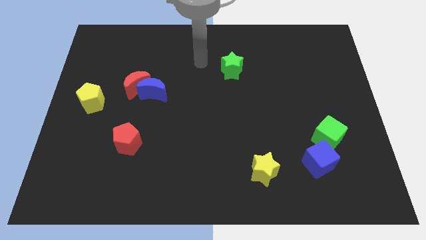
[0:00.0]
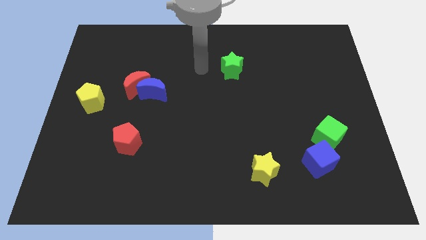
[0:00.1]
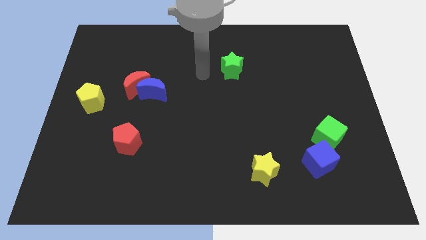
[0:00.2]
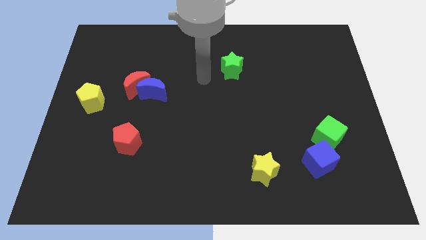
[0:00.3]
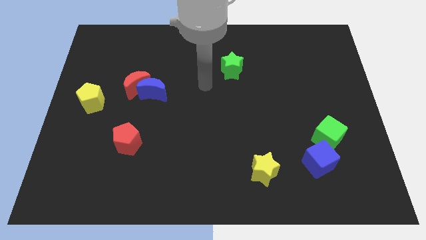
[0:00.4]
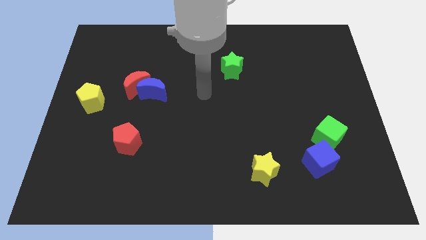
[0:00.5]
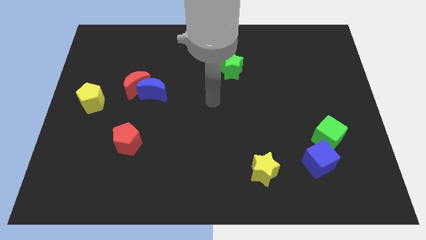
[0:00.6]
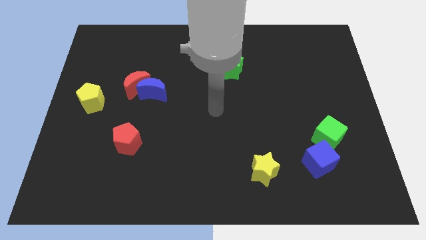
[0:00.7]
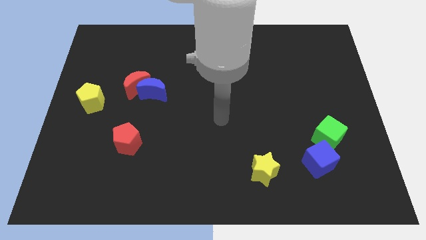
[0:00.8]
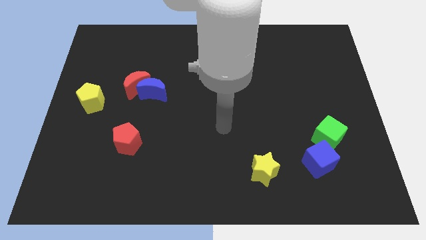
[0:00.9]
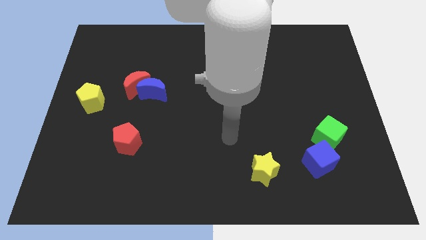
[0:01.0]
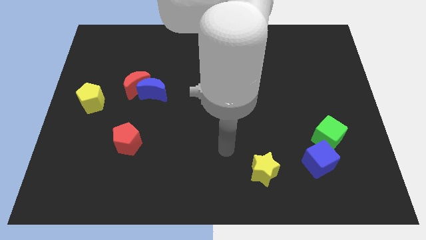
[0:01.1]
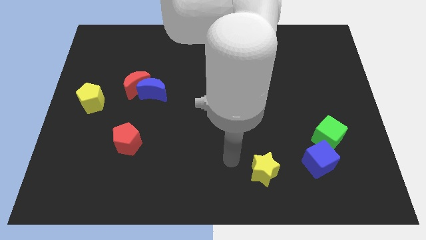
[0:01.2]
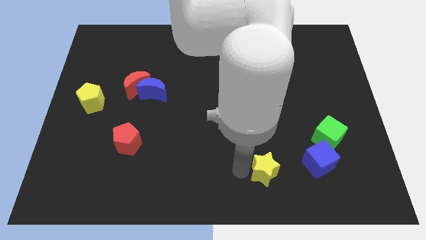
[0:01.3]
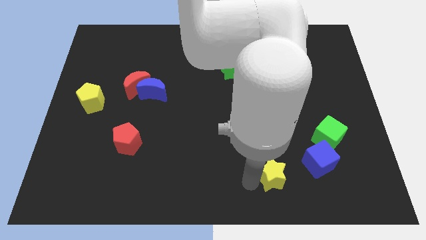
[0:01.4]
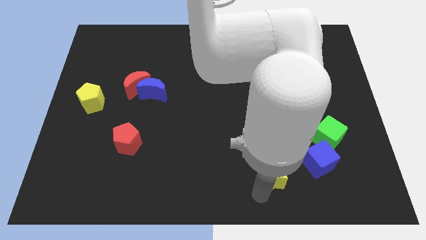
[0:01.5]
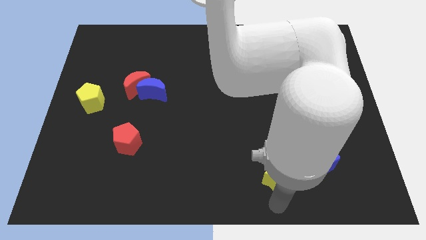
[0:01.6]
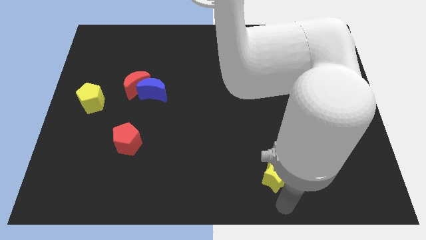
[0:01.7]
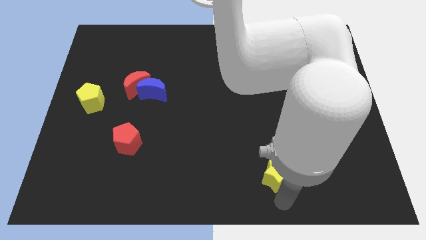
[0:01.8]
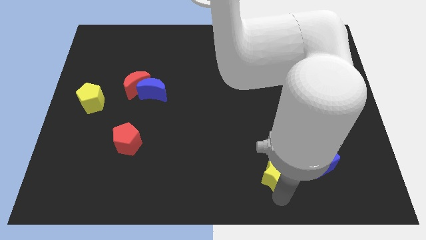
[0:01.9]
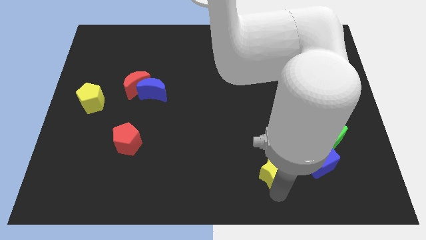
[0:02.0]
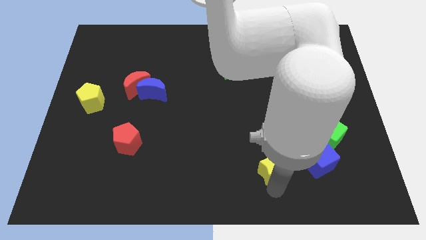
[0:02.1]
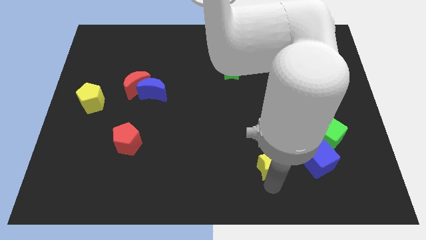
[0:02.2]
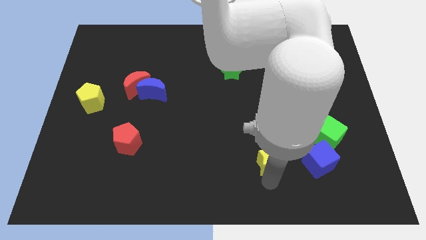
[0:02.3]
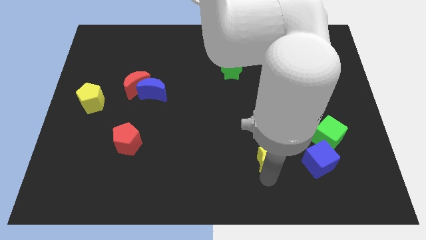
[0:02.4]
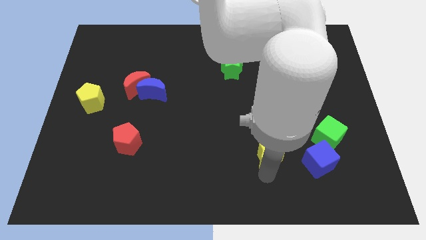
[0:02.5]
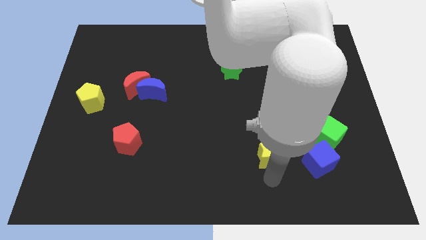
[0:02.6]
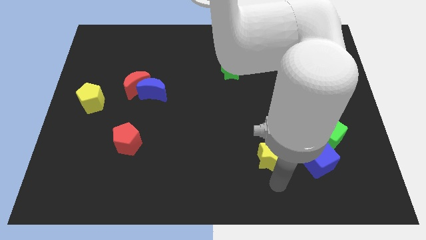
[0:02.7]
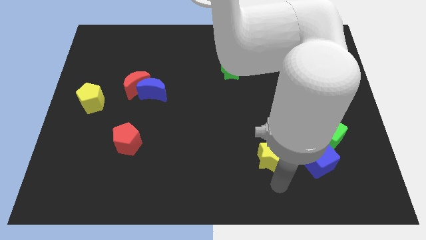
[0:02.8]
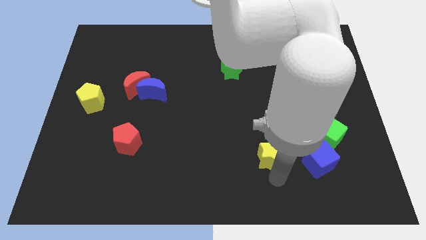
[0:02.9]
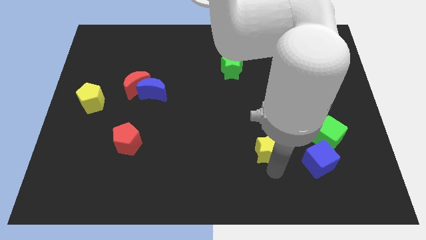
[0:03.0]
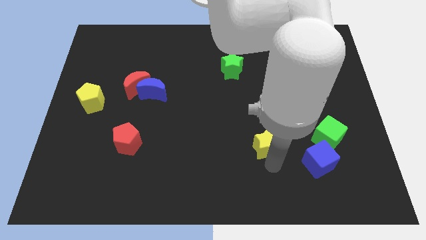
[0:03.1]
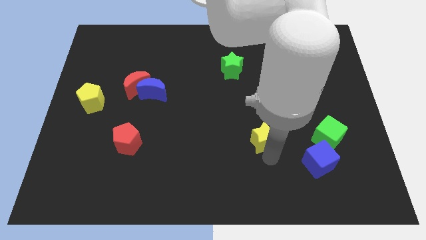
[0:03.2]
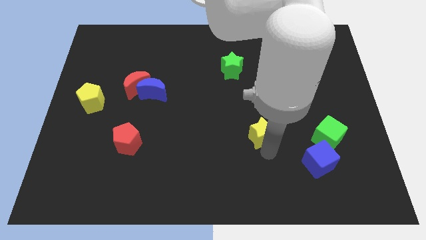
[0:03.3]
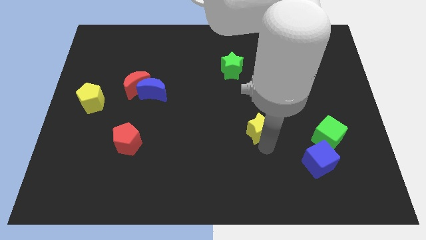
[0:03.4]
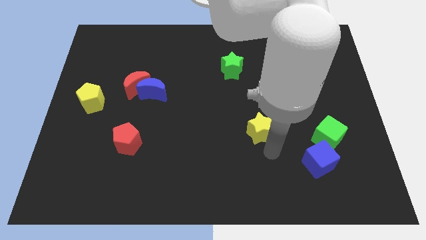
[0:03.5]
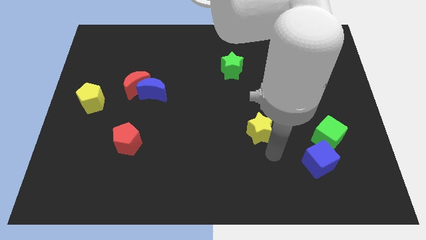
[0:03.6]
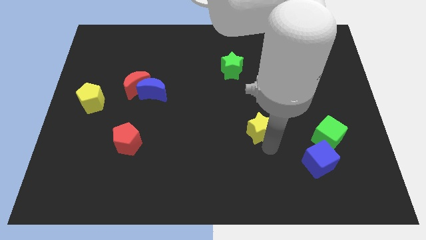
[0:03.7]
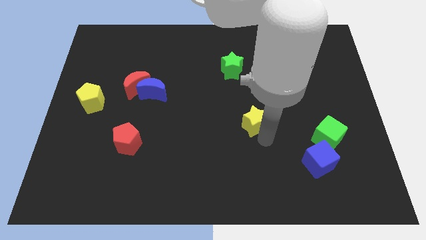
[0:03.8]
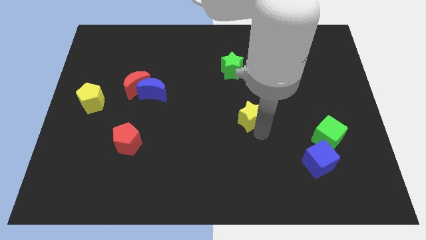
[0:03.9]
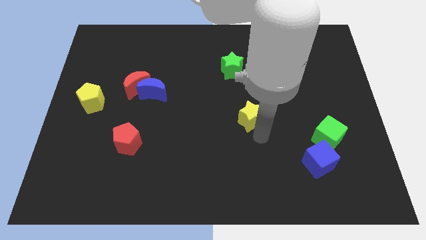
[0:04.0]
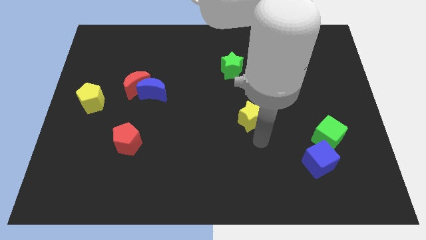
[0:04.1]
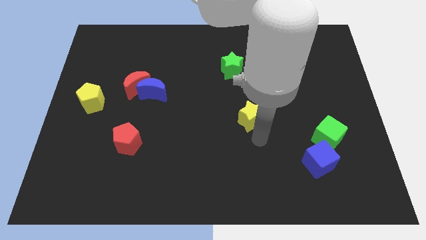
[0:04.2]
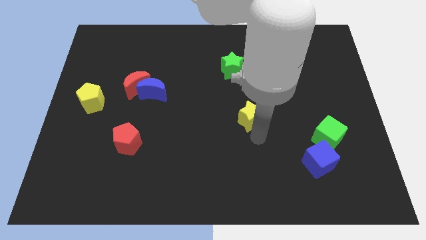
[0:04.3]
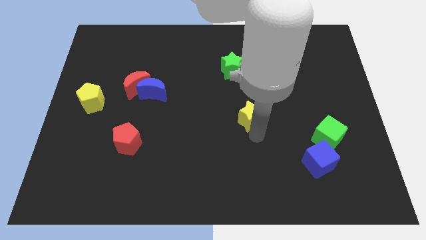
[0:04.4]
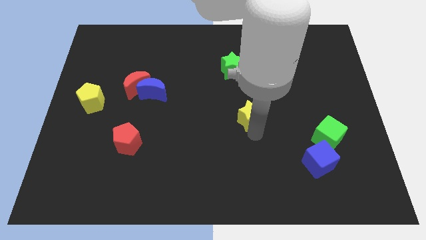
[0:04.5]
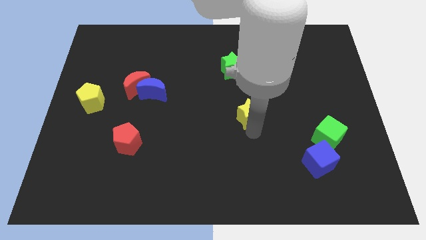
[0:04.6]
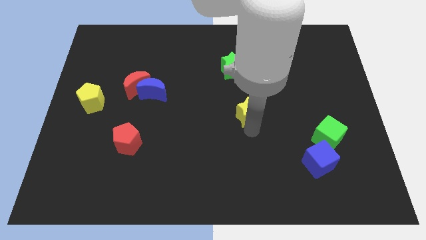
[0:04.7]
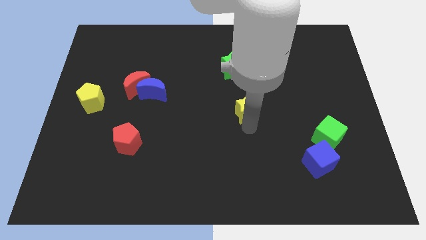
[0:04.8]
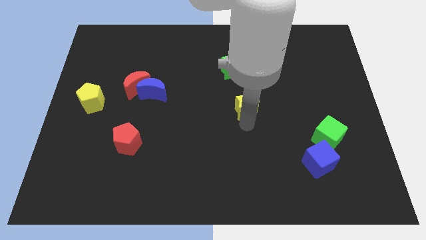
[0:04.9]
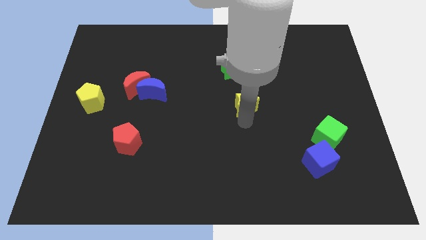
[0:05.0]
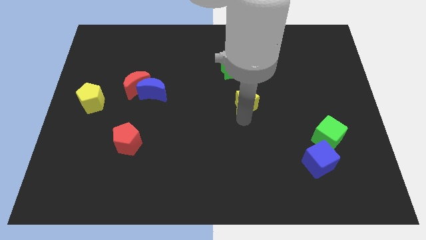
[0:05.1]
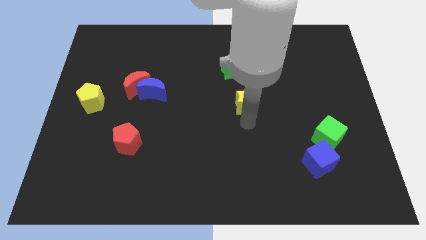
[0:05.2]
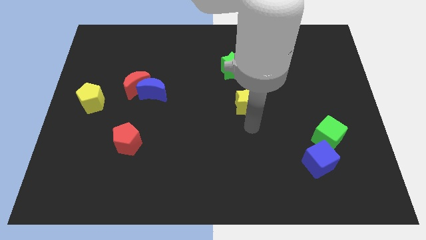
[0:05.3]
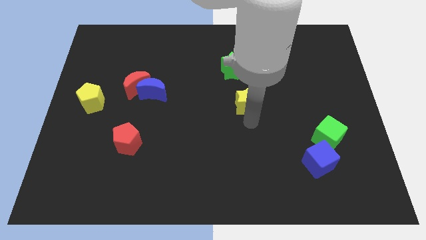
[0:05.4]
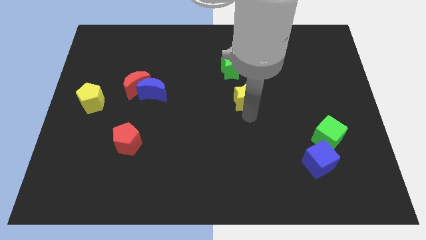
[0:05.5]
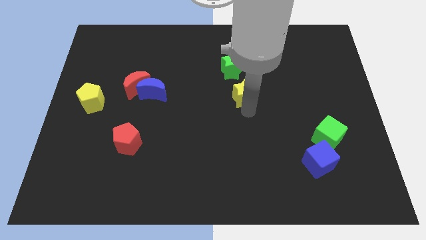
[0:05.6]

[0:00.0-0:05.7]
push the yellow star up

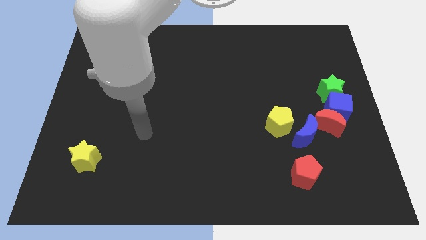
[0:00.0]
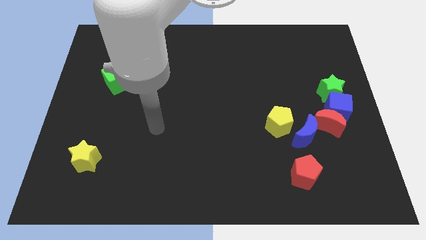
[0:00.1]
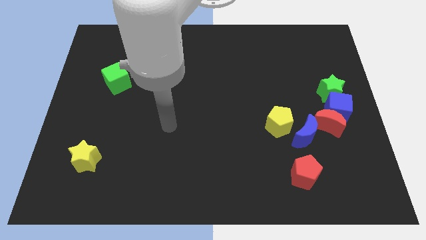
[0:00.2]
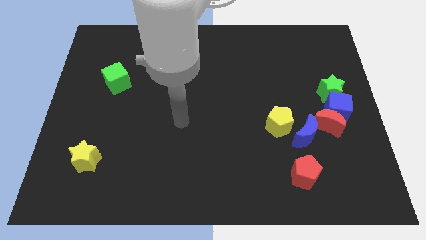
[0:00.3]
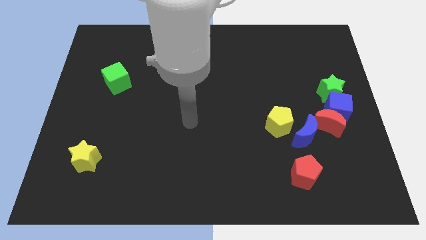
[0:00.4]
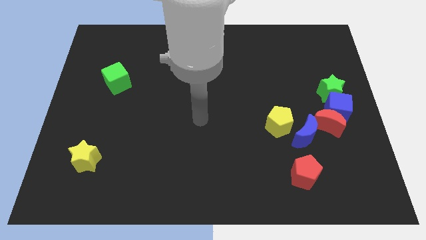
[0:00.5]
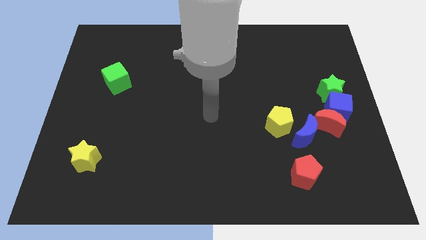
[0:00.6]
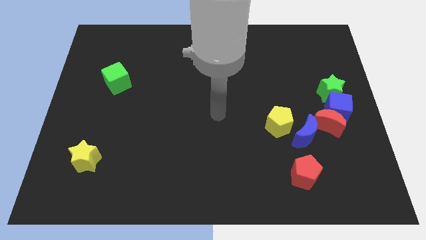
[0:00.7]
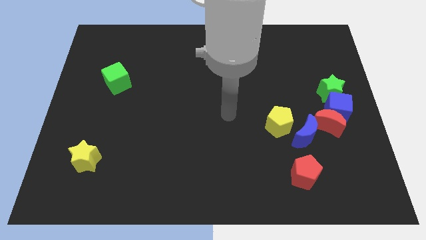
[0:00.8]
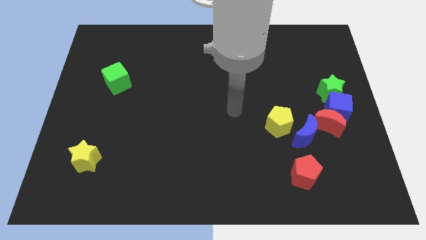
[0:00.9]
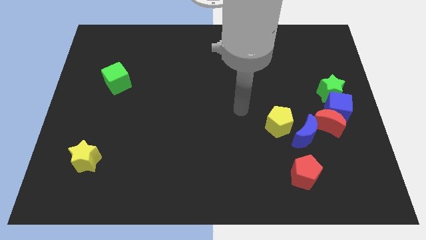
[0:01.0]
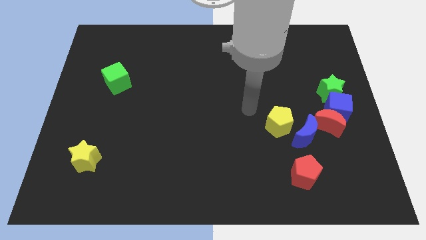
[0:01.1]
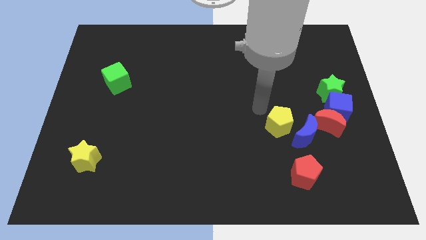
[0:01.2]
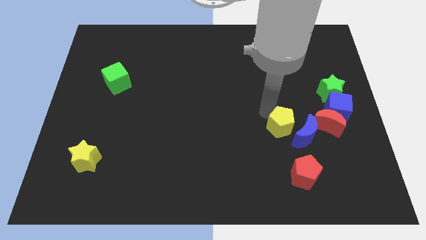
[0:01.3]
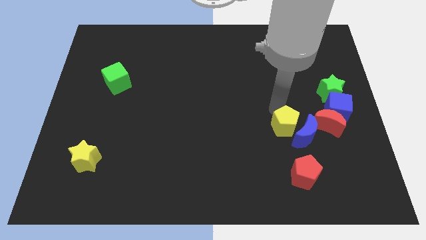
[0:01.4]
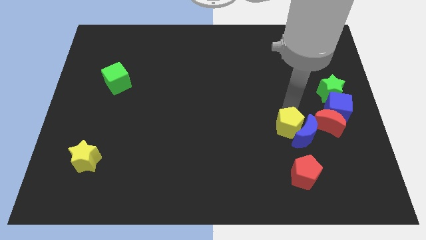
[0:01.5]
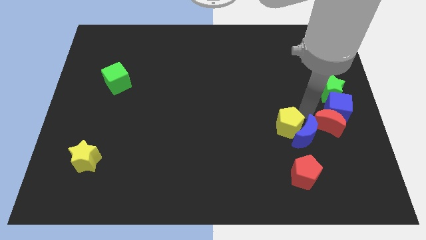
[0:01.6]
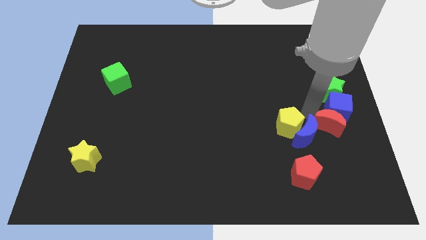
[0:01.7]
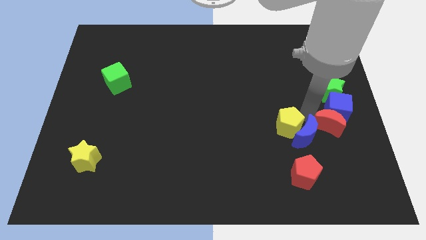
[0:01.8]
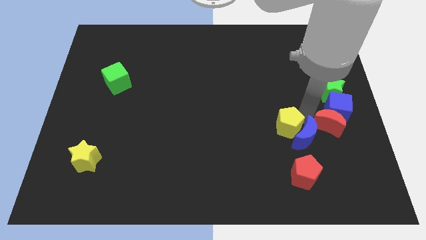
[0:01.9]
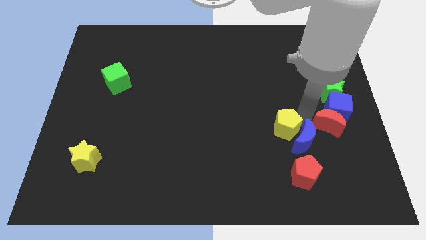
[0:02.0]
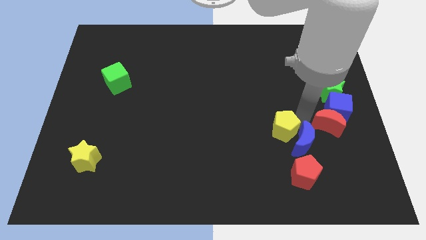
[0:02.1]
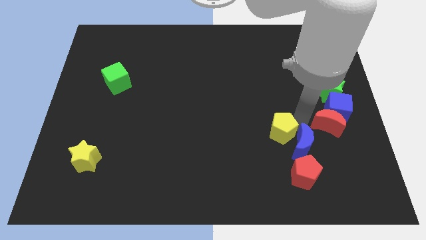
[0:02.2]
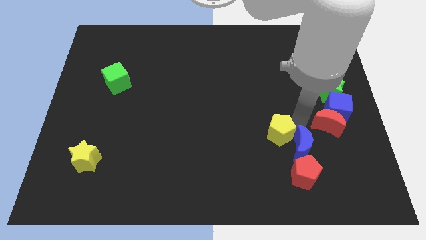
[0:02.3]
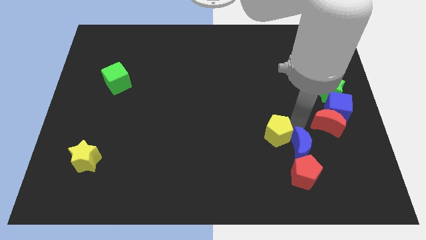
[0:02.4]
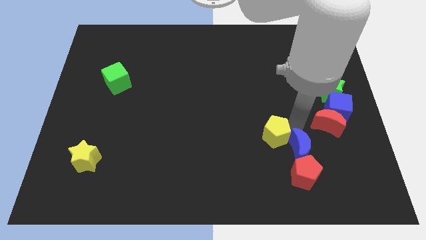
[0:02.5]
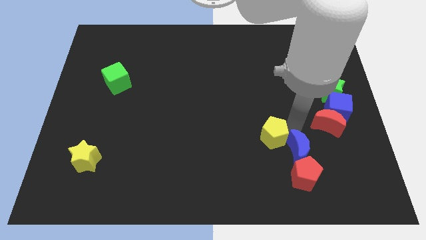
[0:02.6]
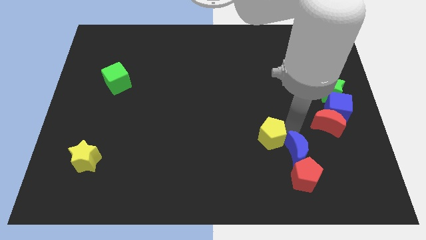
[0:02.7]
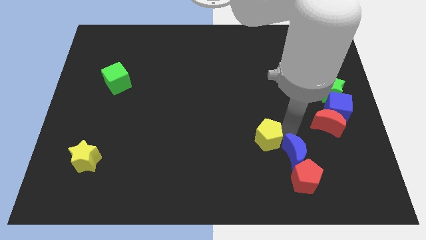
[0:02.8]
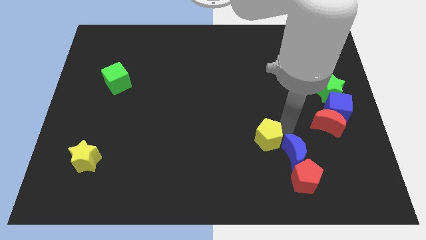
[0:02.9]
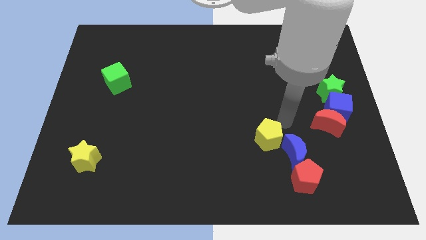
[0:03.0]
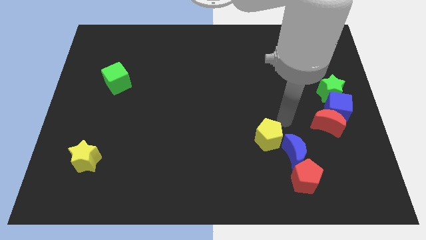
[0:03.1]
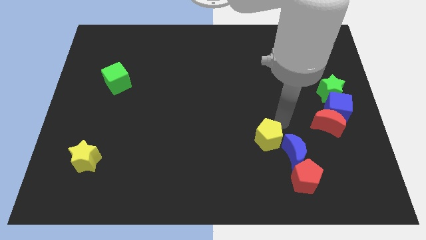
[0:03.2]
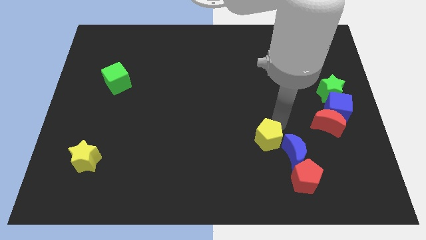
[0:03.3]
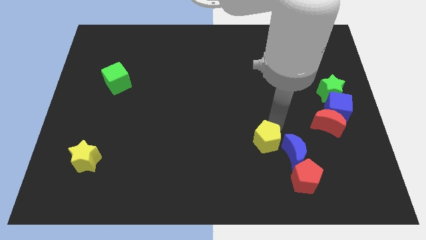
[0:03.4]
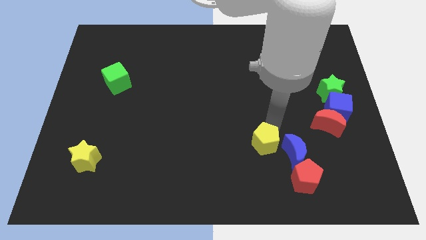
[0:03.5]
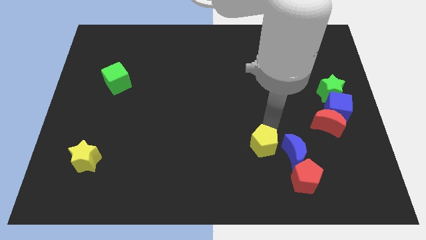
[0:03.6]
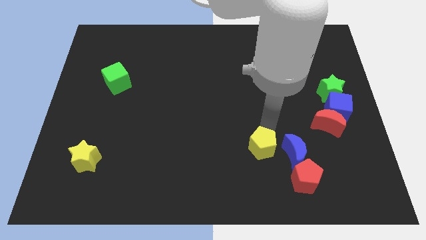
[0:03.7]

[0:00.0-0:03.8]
move the yellow pentagon downwards and to the left a little bit
